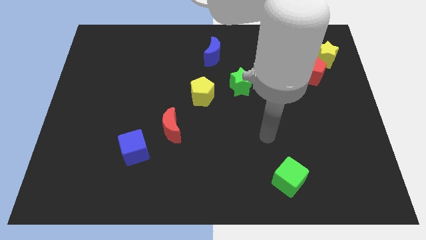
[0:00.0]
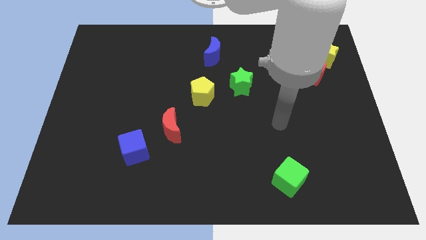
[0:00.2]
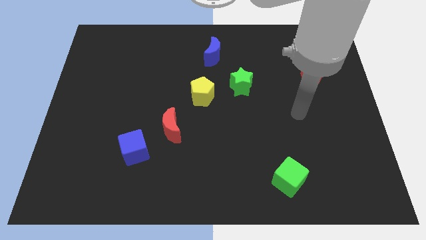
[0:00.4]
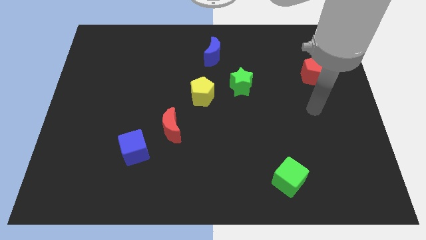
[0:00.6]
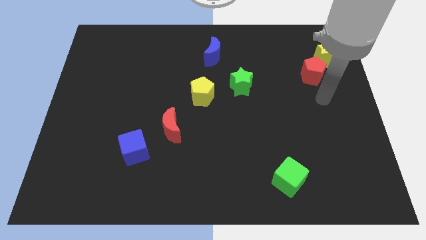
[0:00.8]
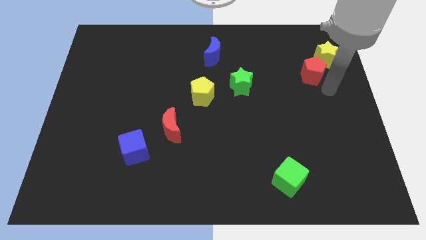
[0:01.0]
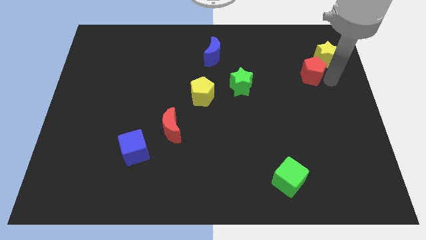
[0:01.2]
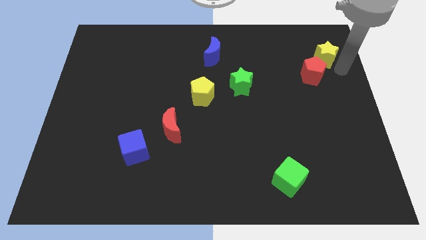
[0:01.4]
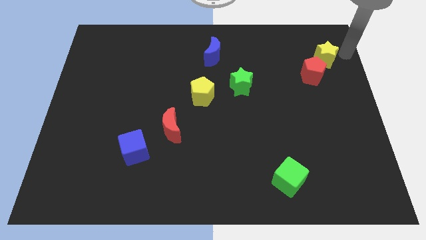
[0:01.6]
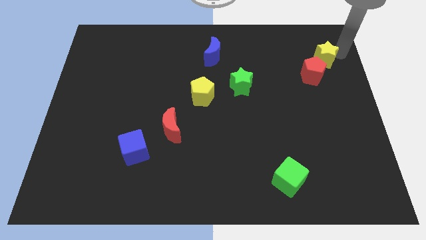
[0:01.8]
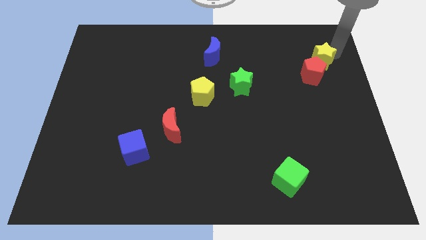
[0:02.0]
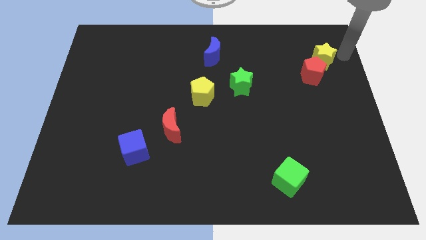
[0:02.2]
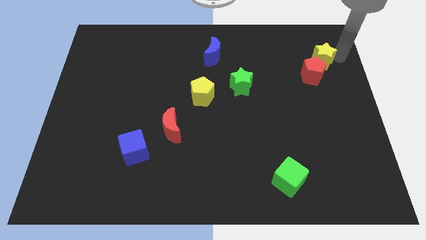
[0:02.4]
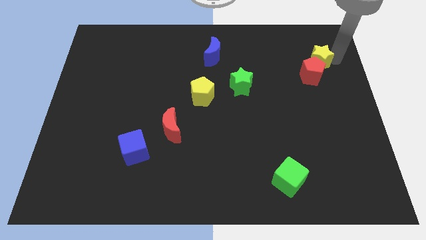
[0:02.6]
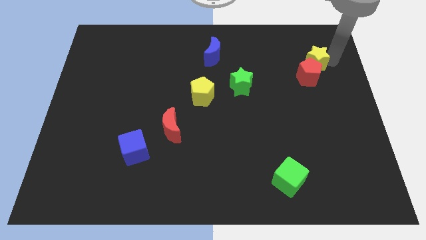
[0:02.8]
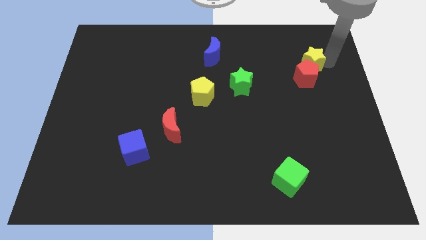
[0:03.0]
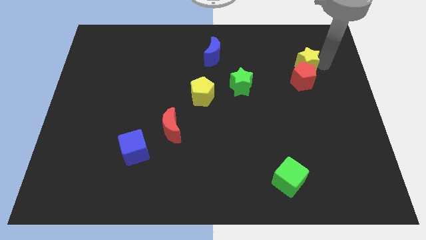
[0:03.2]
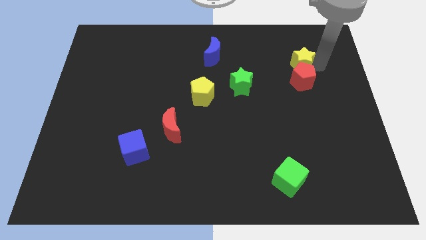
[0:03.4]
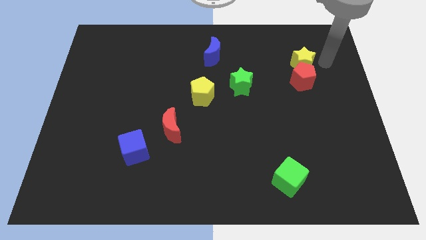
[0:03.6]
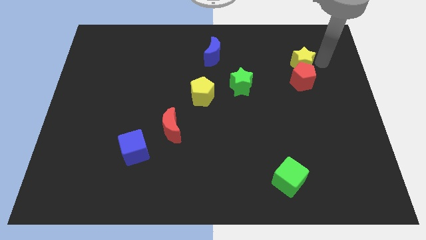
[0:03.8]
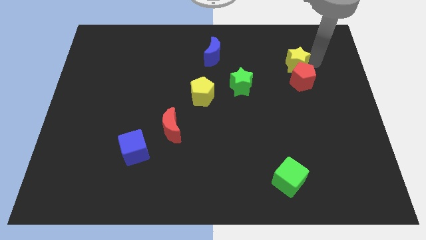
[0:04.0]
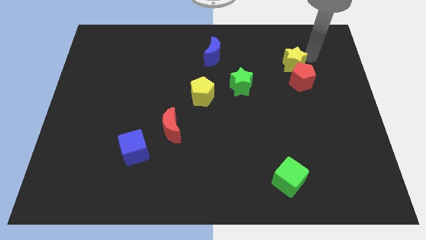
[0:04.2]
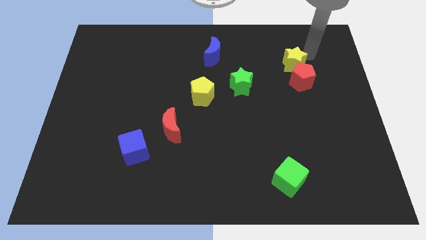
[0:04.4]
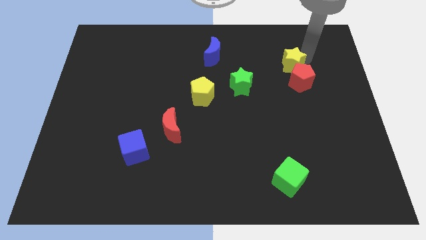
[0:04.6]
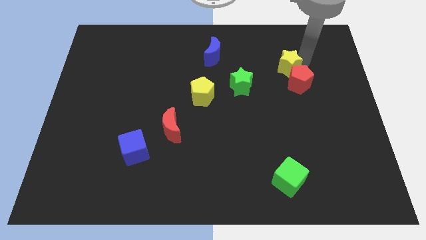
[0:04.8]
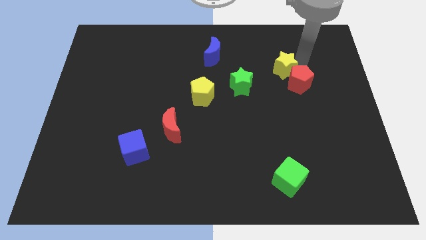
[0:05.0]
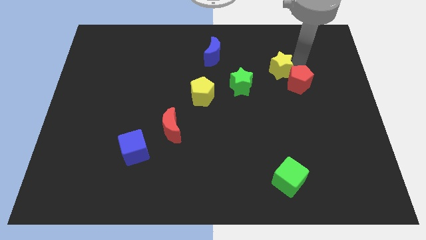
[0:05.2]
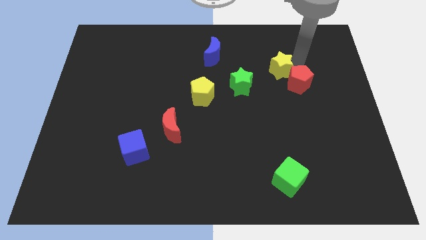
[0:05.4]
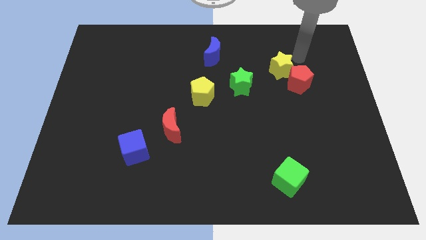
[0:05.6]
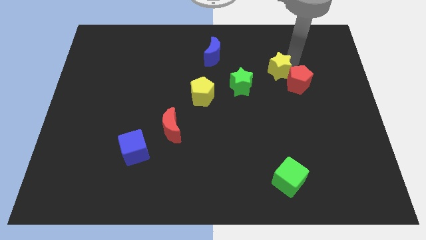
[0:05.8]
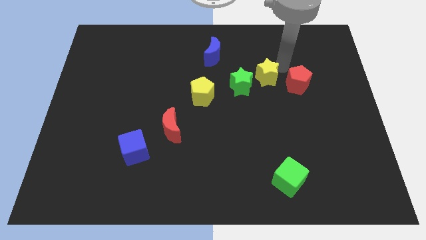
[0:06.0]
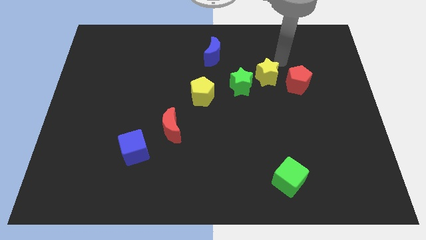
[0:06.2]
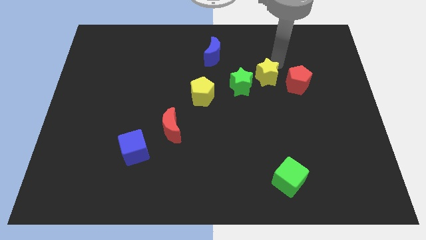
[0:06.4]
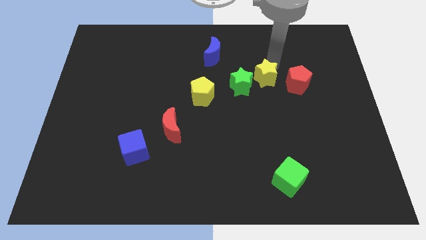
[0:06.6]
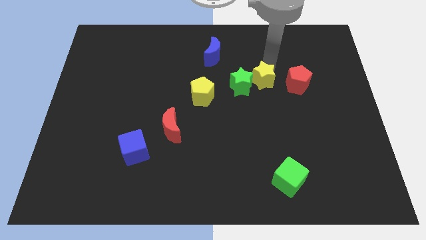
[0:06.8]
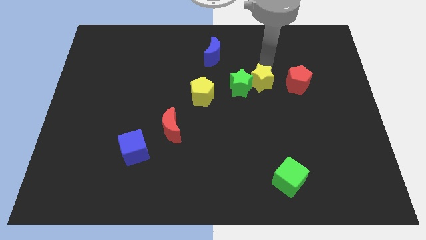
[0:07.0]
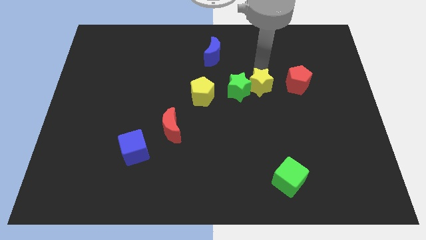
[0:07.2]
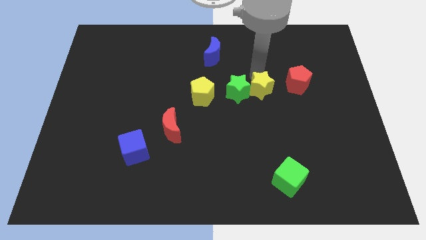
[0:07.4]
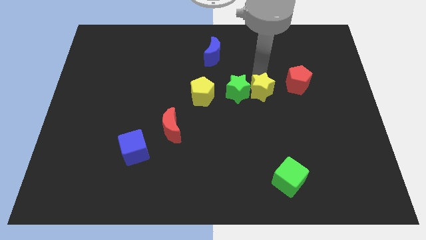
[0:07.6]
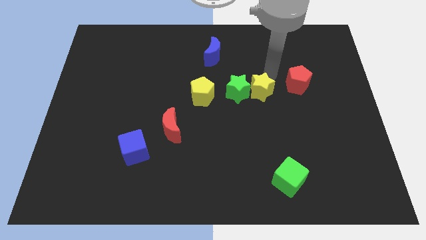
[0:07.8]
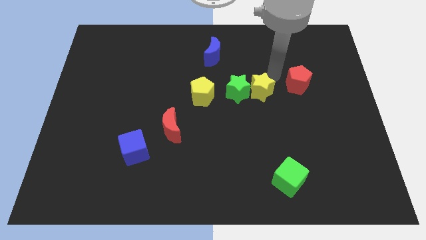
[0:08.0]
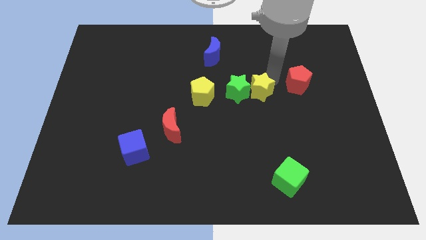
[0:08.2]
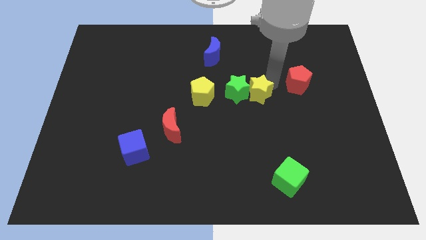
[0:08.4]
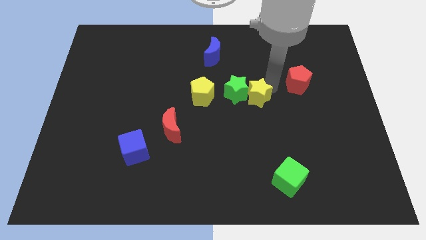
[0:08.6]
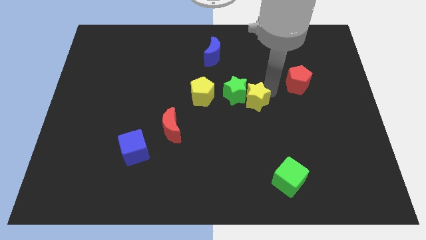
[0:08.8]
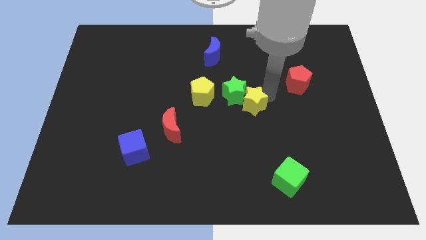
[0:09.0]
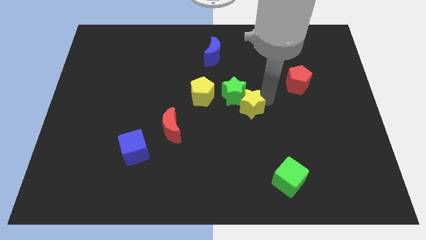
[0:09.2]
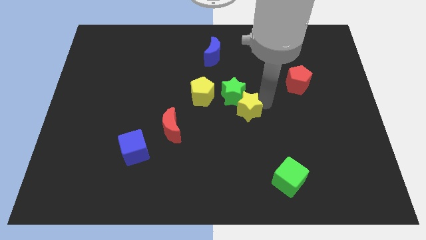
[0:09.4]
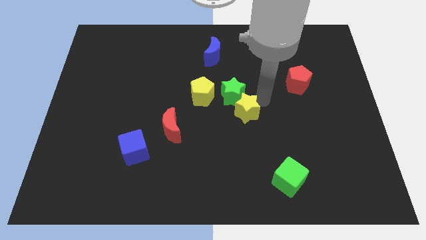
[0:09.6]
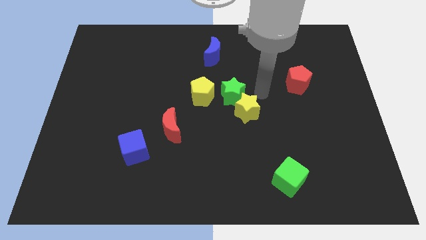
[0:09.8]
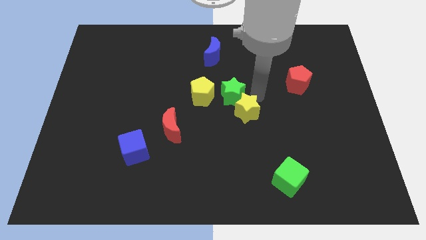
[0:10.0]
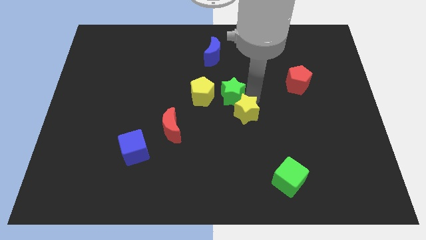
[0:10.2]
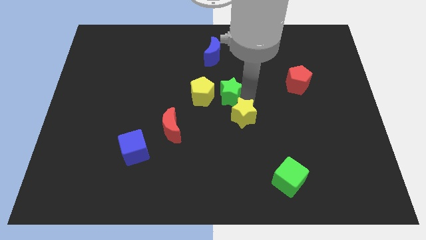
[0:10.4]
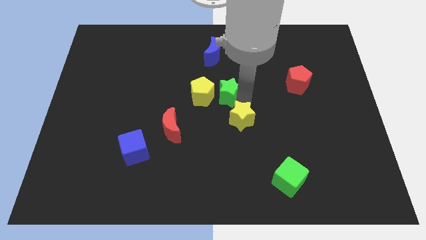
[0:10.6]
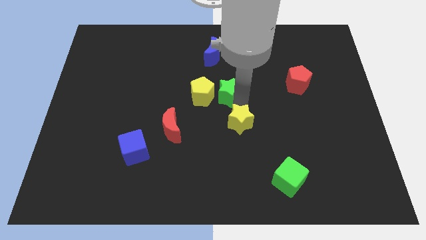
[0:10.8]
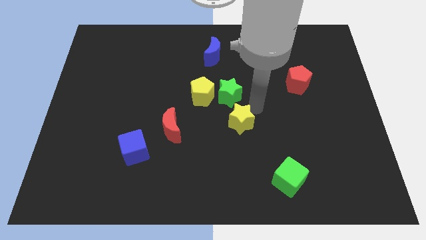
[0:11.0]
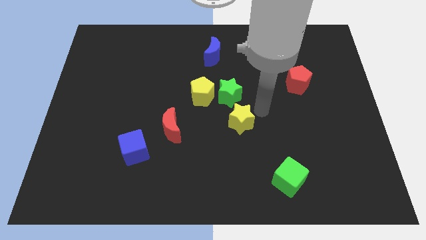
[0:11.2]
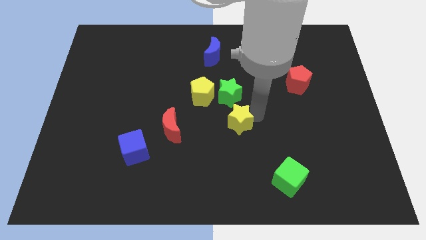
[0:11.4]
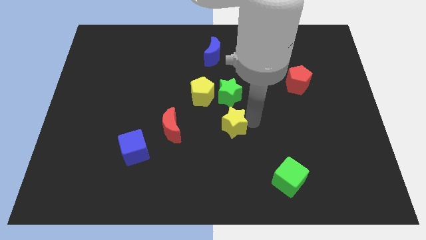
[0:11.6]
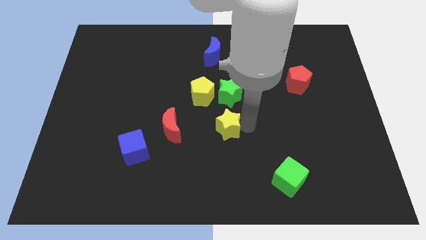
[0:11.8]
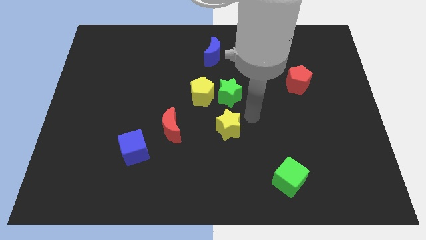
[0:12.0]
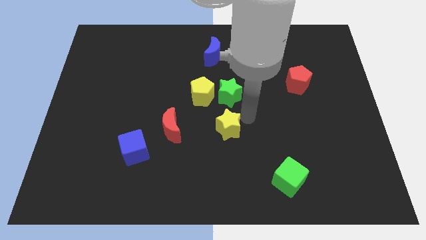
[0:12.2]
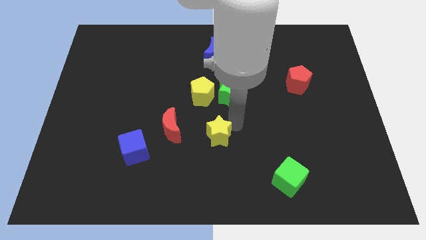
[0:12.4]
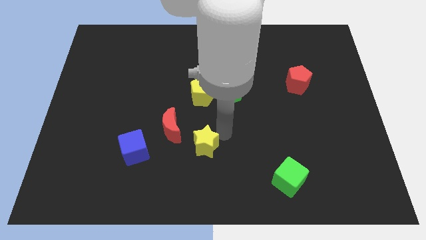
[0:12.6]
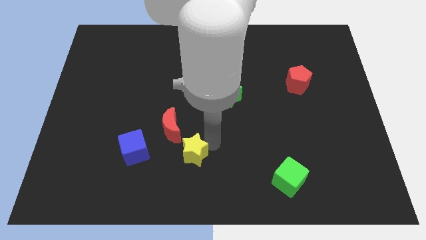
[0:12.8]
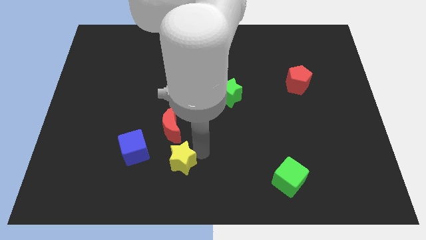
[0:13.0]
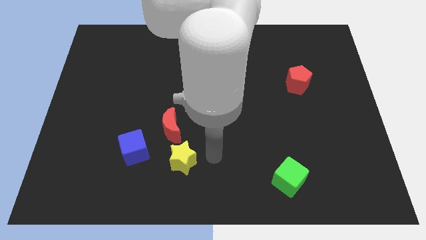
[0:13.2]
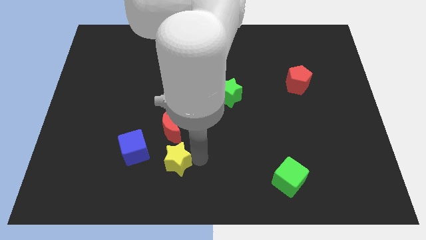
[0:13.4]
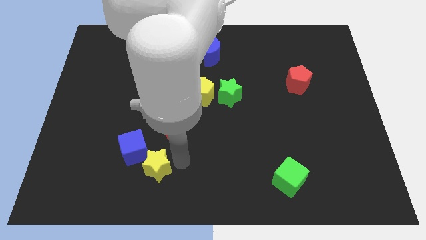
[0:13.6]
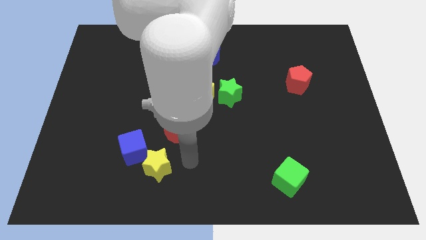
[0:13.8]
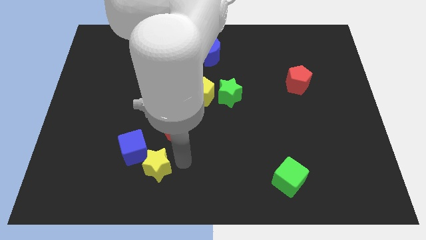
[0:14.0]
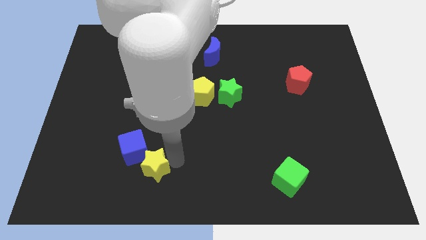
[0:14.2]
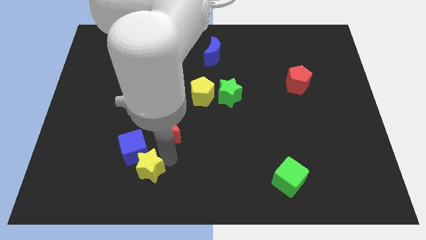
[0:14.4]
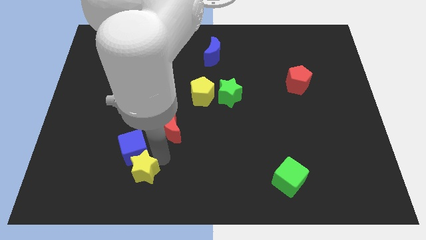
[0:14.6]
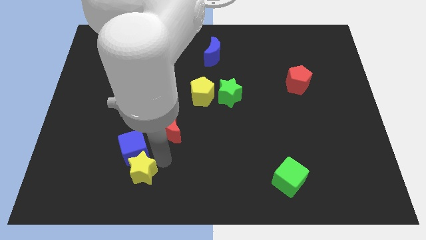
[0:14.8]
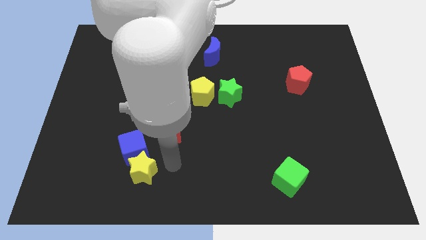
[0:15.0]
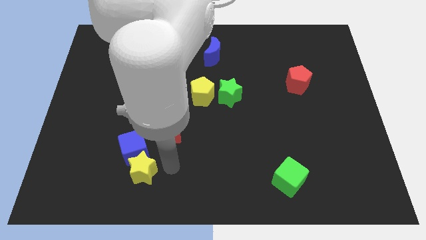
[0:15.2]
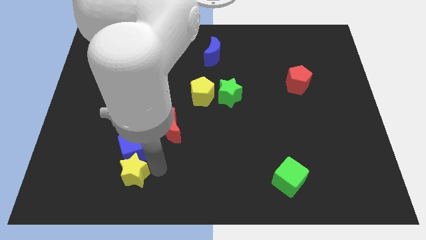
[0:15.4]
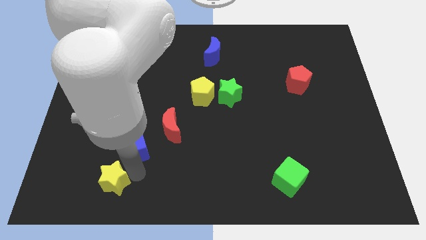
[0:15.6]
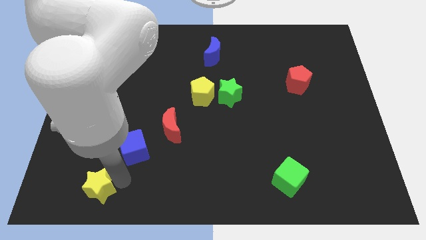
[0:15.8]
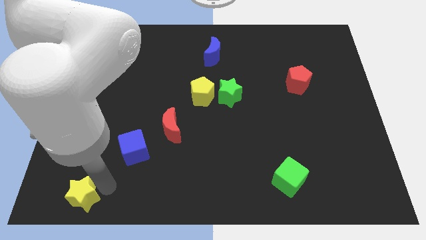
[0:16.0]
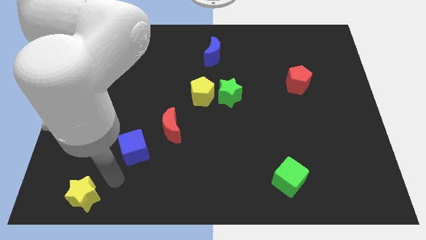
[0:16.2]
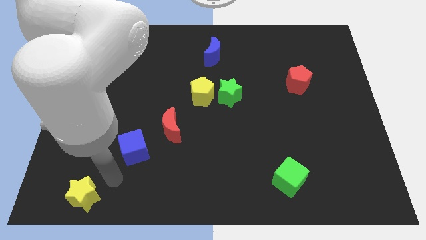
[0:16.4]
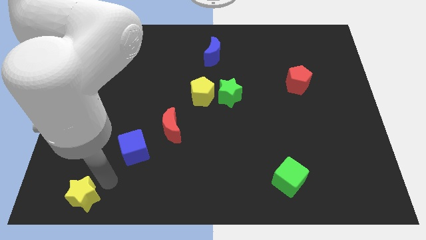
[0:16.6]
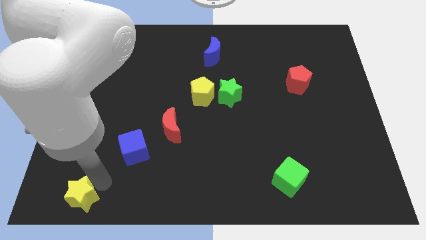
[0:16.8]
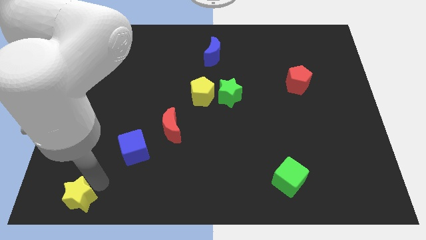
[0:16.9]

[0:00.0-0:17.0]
move the yellow star to the bottom left
